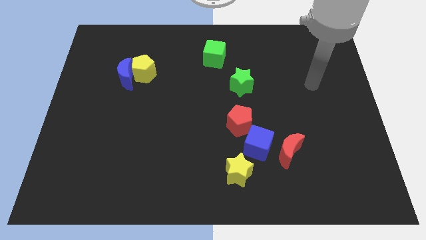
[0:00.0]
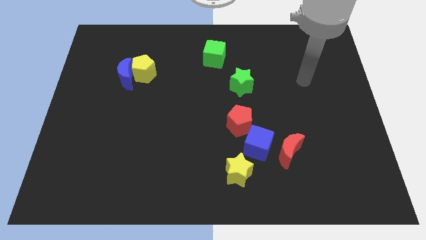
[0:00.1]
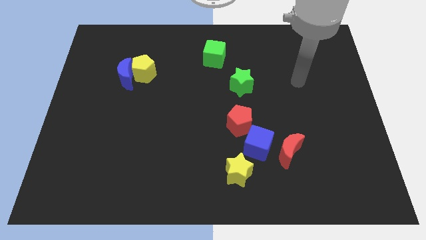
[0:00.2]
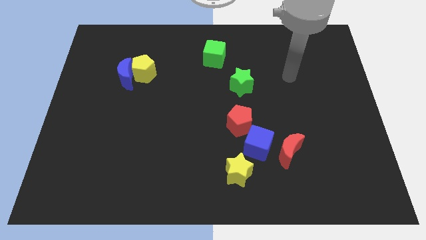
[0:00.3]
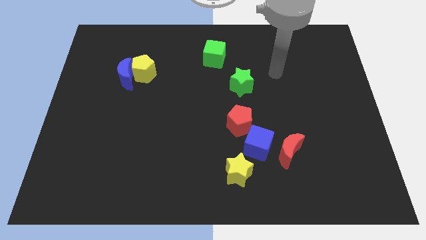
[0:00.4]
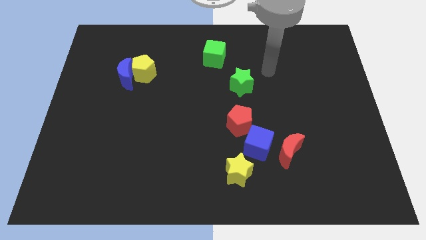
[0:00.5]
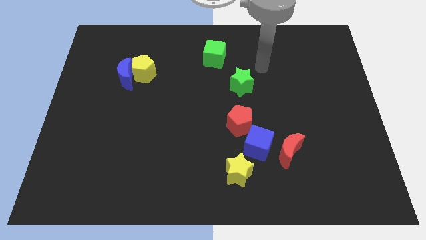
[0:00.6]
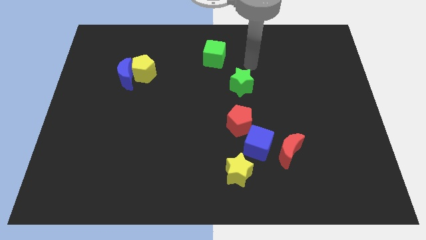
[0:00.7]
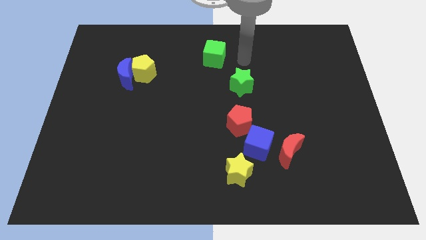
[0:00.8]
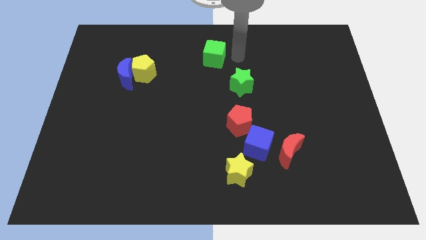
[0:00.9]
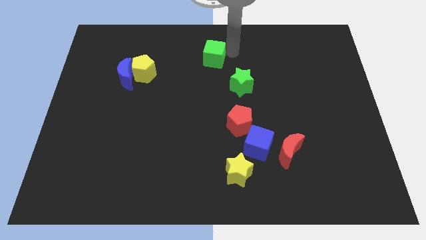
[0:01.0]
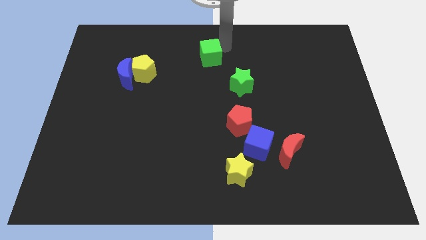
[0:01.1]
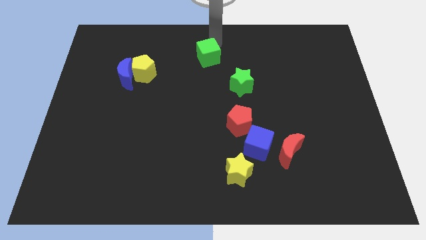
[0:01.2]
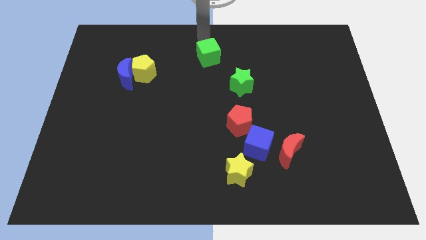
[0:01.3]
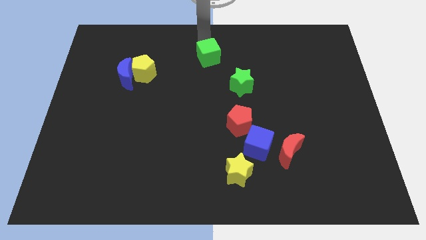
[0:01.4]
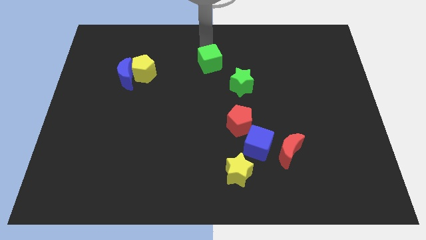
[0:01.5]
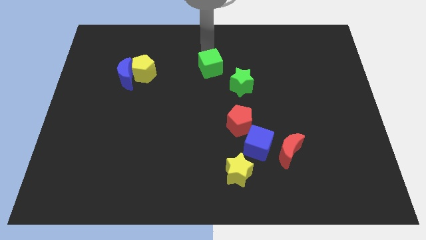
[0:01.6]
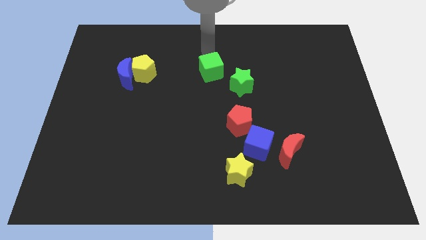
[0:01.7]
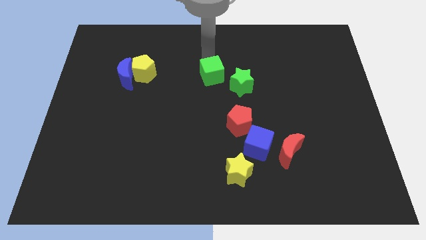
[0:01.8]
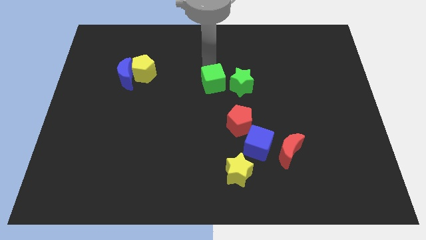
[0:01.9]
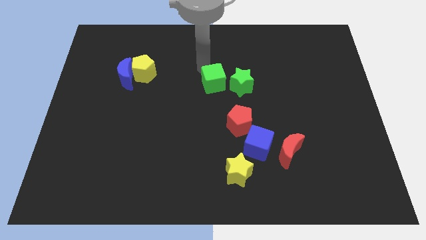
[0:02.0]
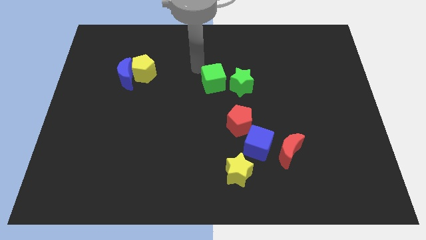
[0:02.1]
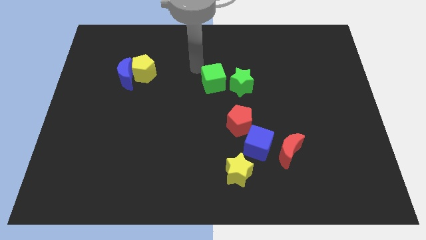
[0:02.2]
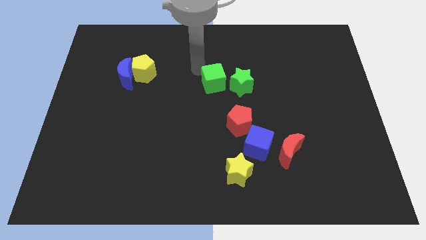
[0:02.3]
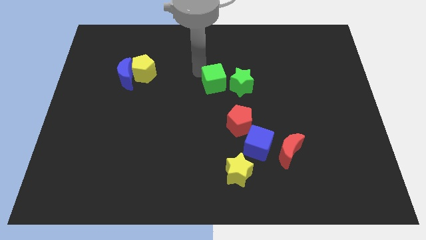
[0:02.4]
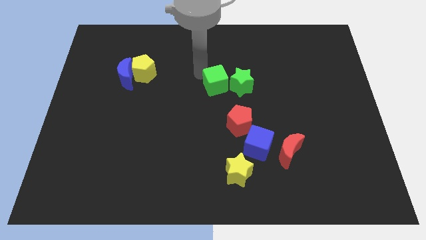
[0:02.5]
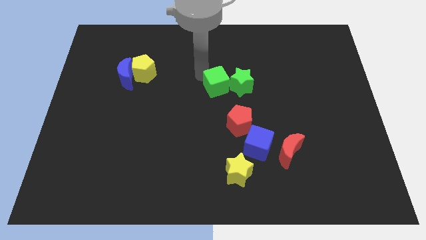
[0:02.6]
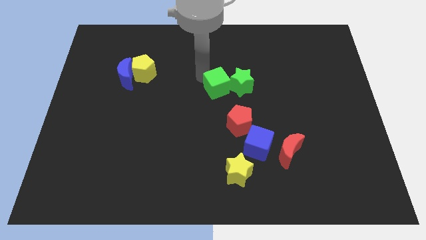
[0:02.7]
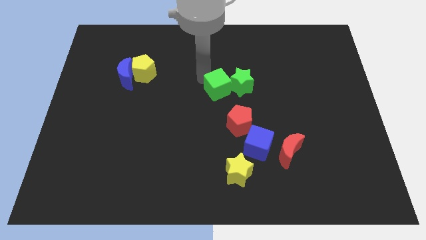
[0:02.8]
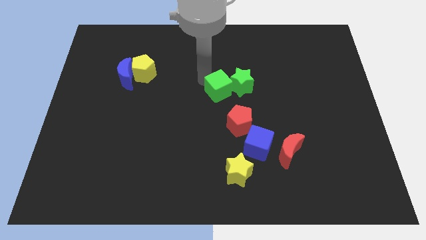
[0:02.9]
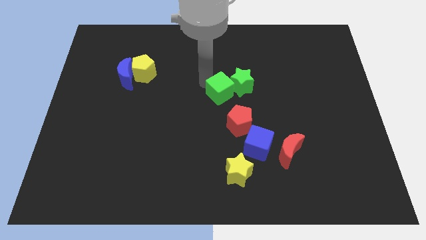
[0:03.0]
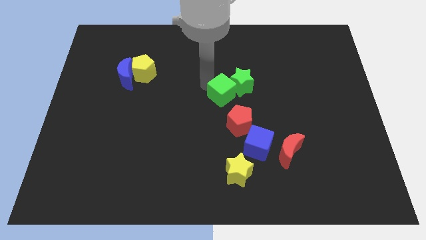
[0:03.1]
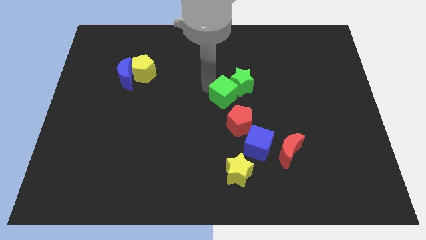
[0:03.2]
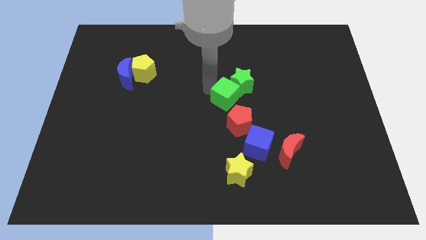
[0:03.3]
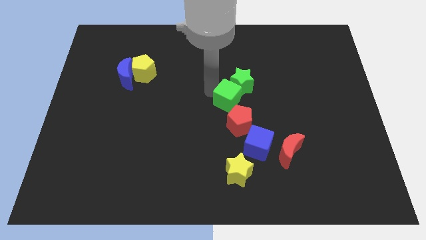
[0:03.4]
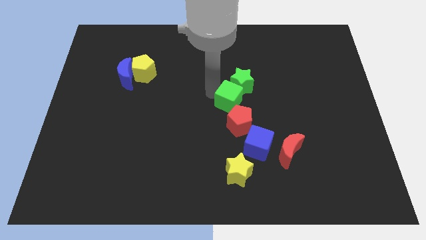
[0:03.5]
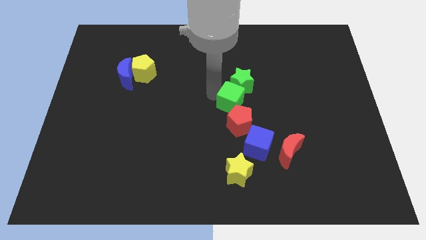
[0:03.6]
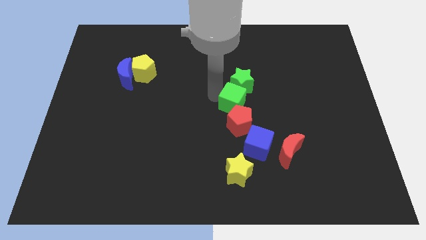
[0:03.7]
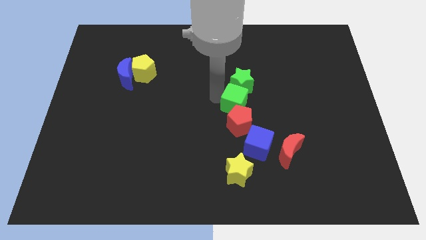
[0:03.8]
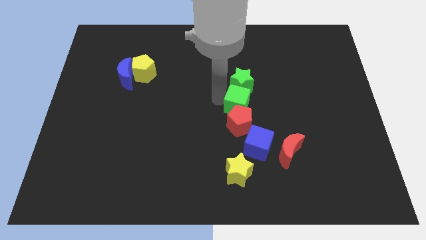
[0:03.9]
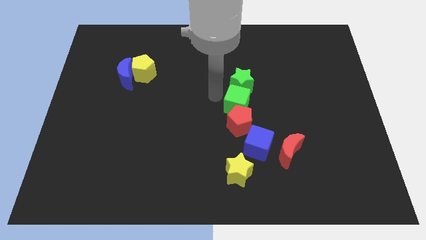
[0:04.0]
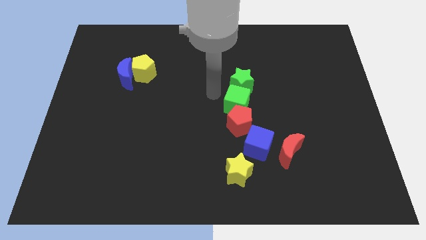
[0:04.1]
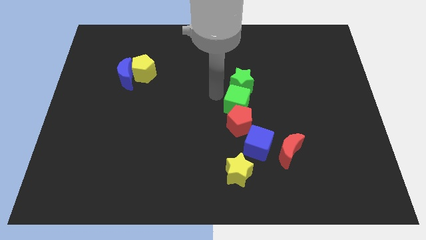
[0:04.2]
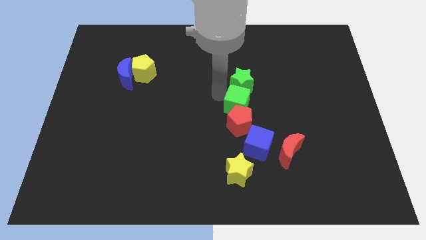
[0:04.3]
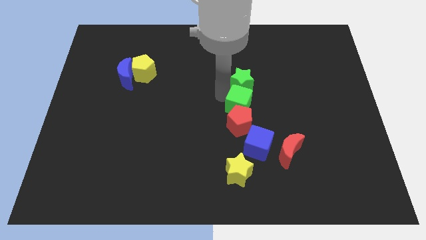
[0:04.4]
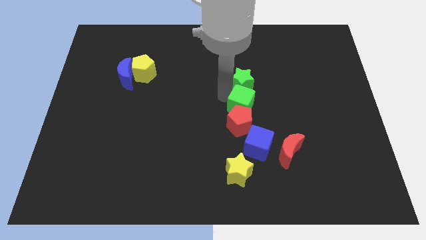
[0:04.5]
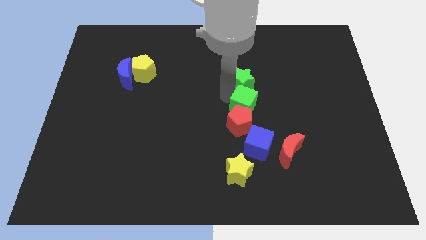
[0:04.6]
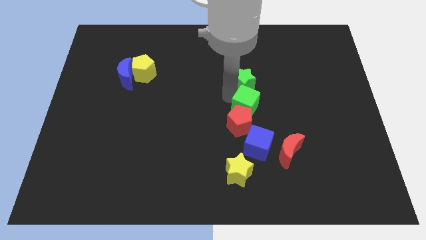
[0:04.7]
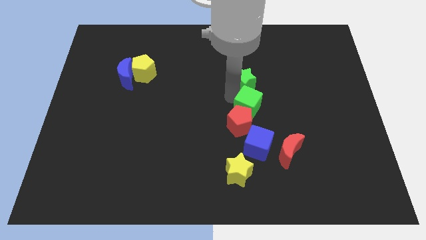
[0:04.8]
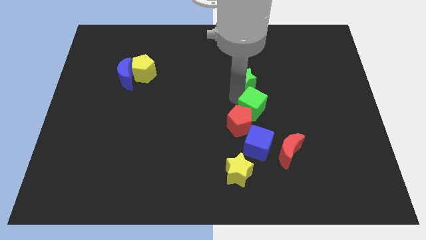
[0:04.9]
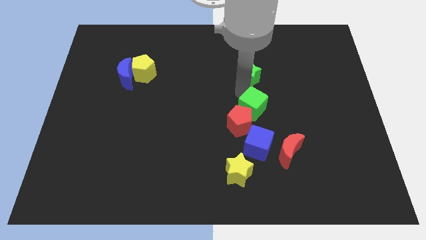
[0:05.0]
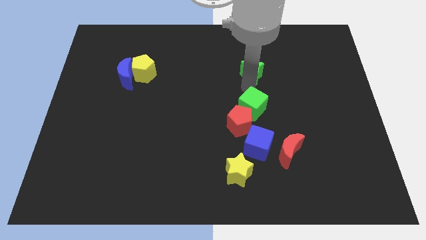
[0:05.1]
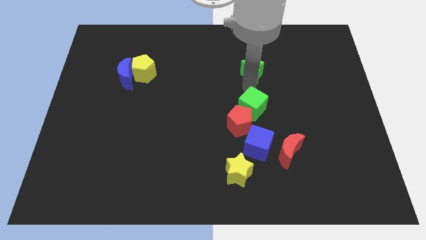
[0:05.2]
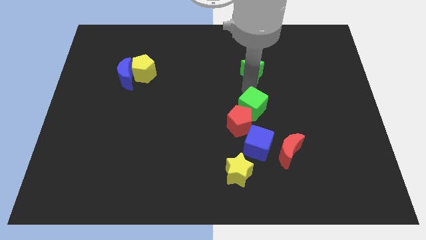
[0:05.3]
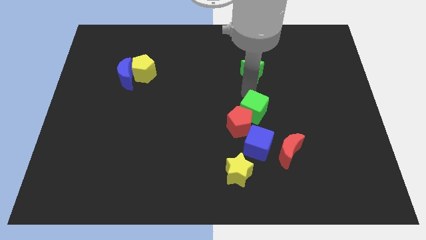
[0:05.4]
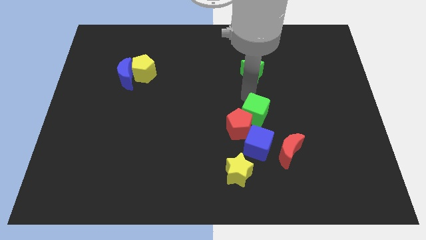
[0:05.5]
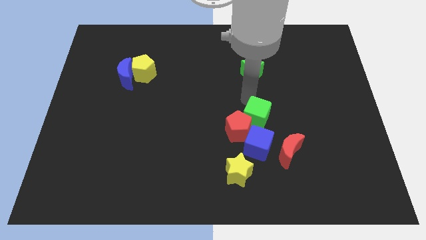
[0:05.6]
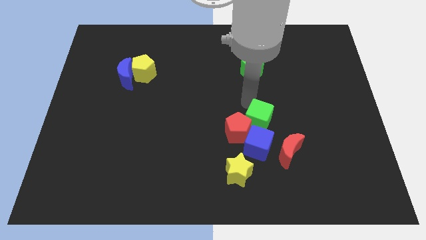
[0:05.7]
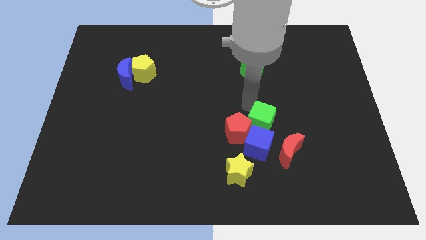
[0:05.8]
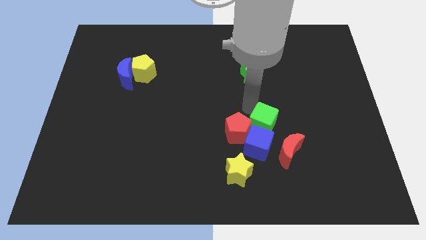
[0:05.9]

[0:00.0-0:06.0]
push the green cube towards the blue cube

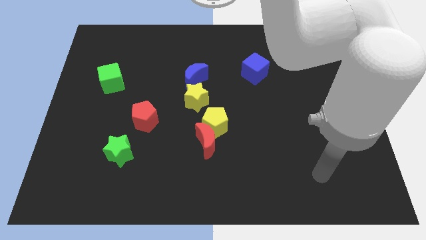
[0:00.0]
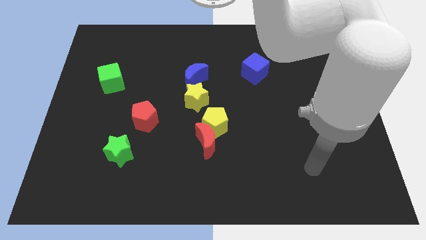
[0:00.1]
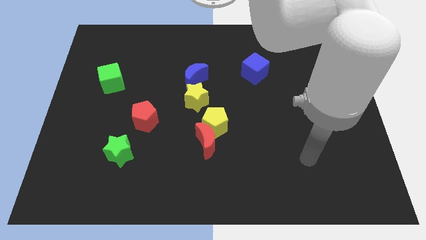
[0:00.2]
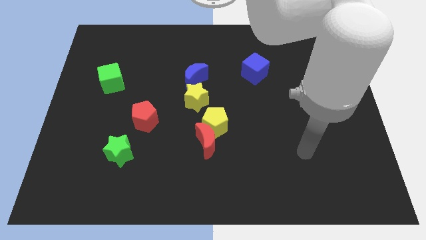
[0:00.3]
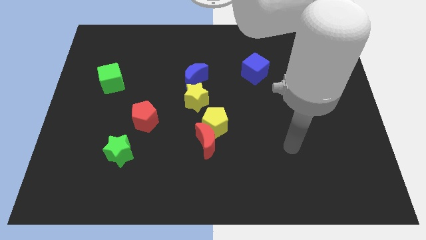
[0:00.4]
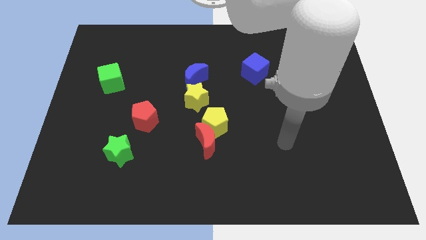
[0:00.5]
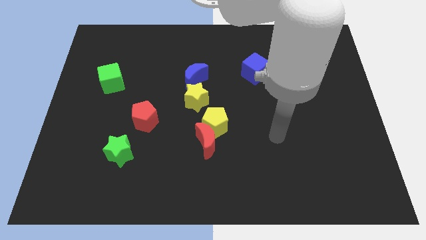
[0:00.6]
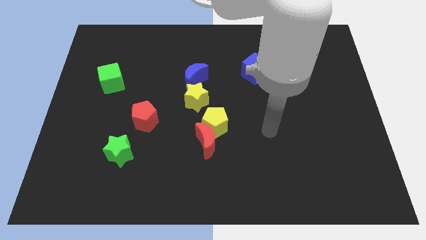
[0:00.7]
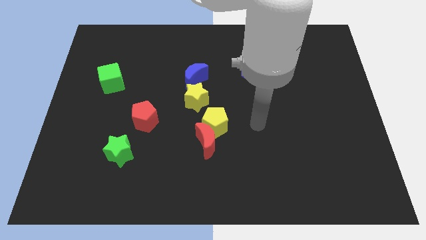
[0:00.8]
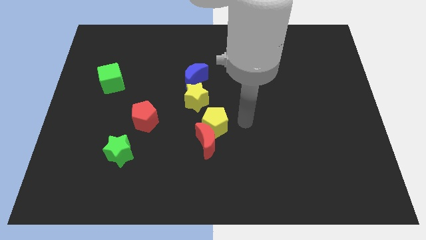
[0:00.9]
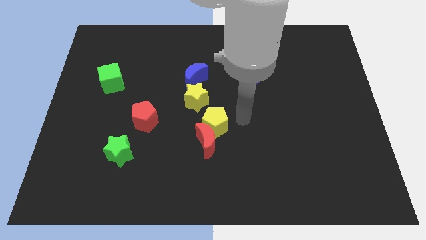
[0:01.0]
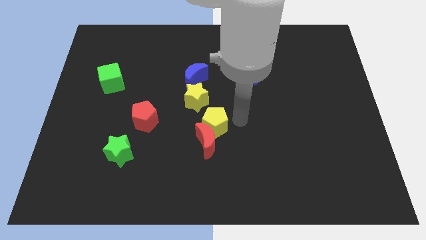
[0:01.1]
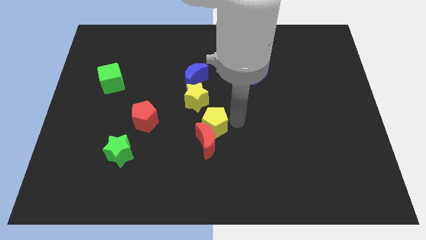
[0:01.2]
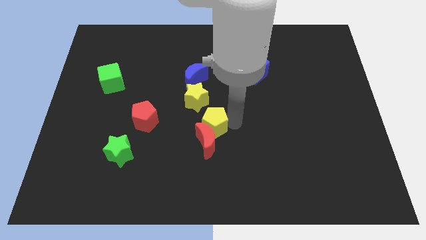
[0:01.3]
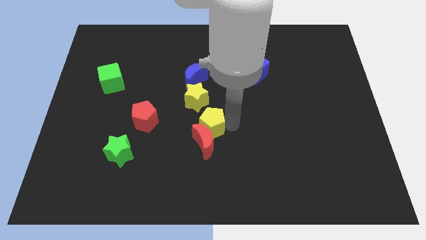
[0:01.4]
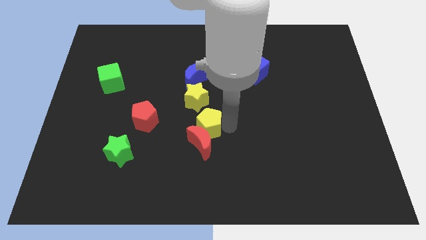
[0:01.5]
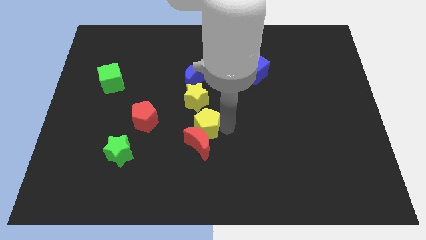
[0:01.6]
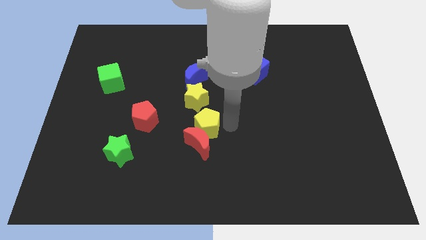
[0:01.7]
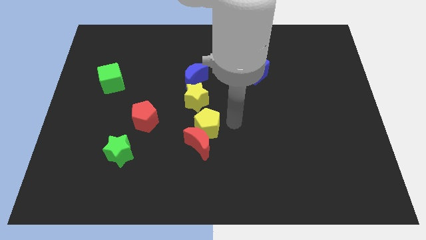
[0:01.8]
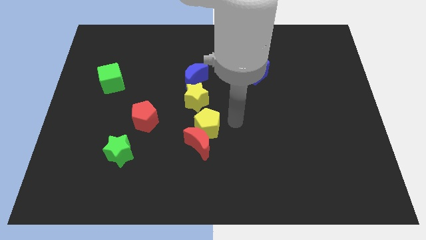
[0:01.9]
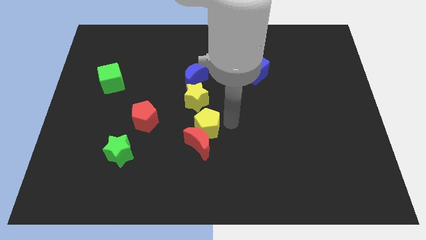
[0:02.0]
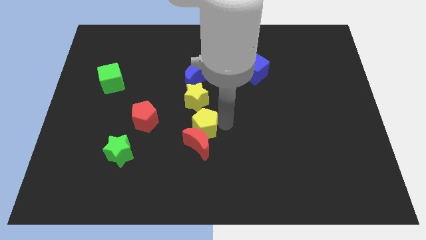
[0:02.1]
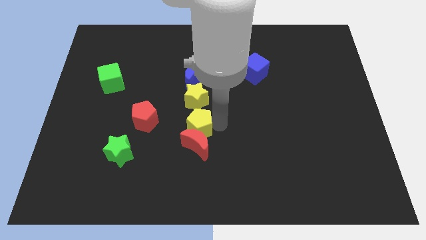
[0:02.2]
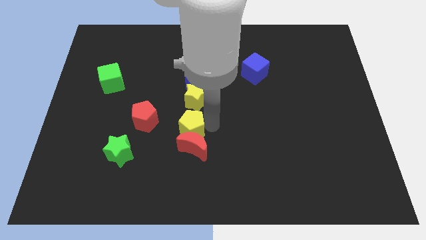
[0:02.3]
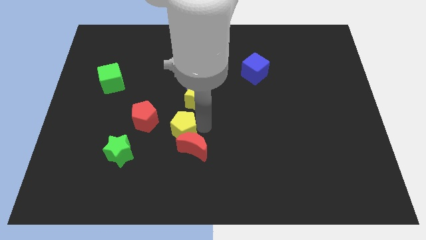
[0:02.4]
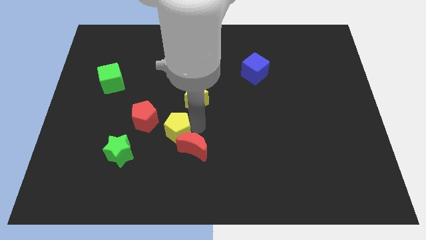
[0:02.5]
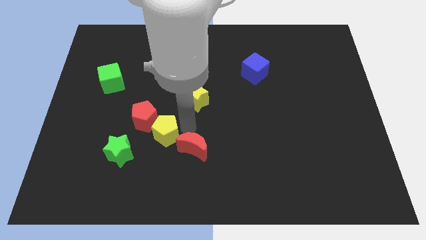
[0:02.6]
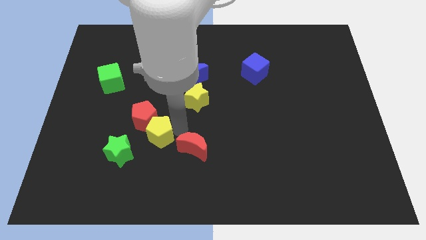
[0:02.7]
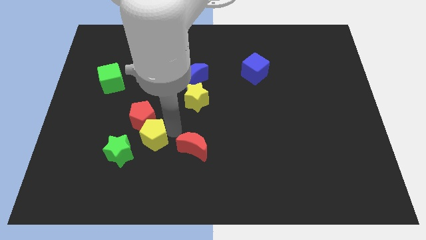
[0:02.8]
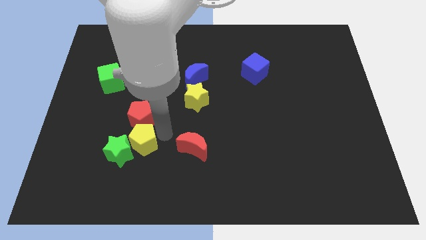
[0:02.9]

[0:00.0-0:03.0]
push the yellow pentagon towards the green star
